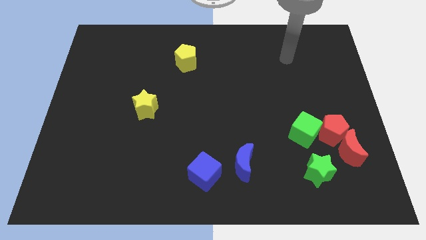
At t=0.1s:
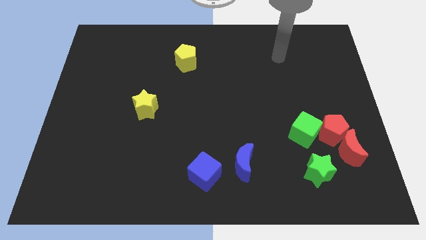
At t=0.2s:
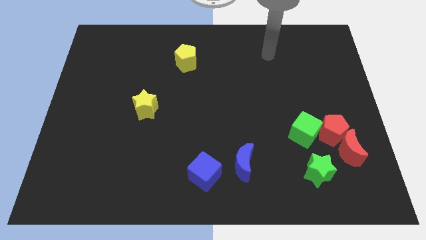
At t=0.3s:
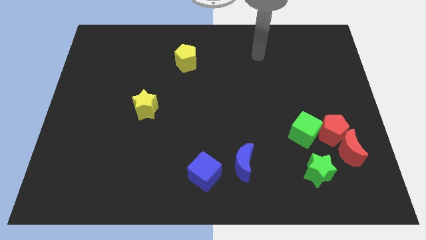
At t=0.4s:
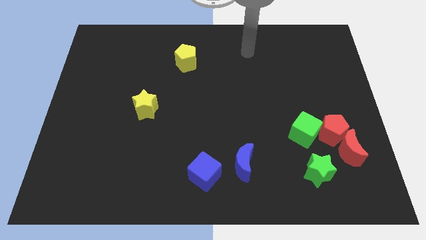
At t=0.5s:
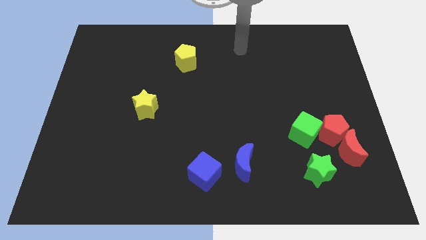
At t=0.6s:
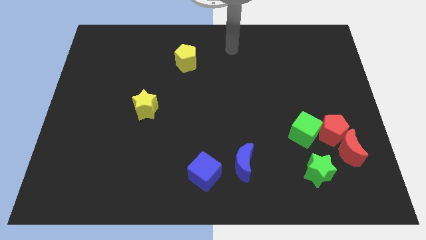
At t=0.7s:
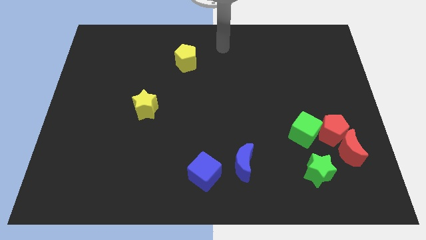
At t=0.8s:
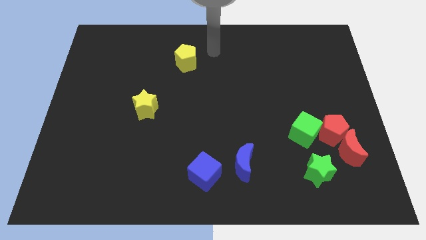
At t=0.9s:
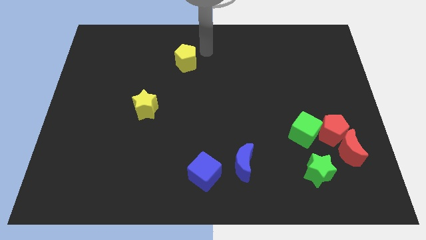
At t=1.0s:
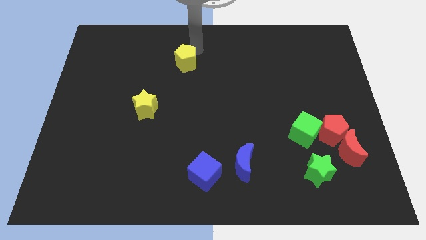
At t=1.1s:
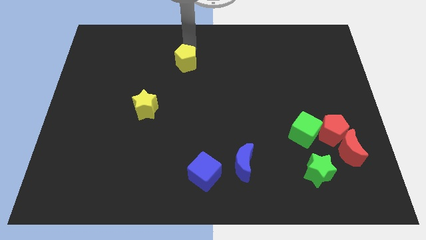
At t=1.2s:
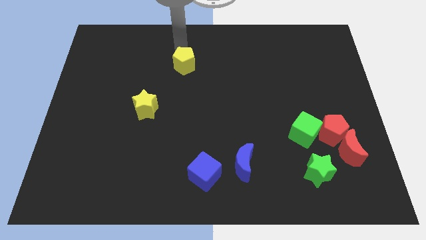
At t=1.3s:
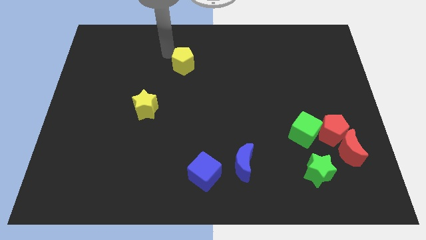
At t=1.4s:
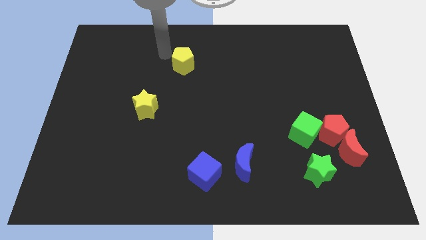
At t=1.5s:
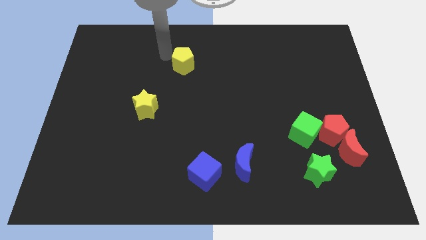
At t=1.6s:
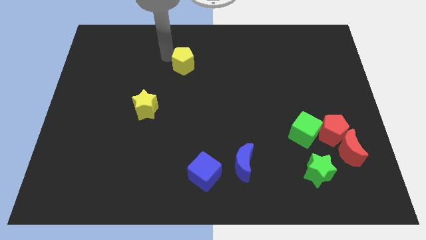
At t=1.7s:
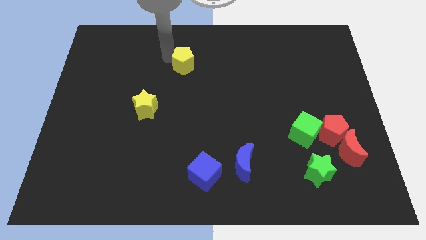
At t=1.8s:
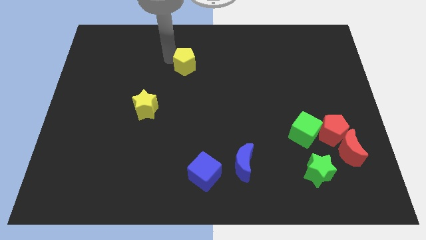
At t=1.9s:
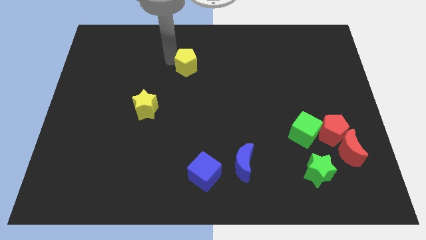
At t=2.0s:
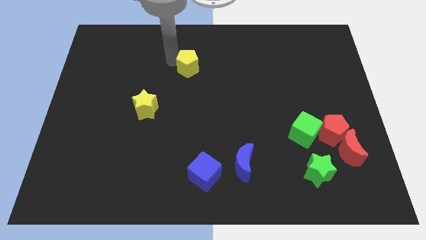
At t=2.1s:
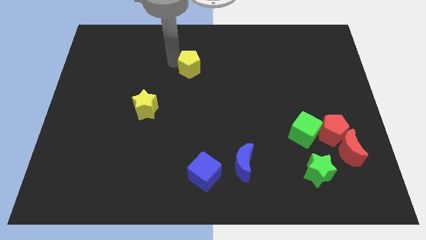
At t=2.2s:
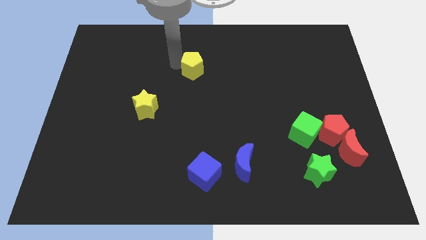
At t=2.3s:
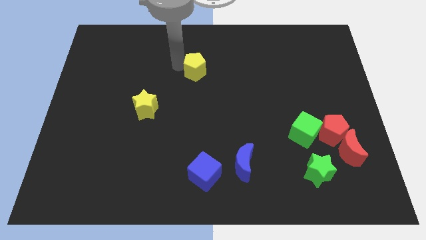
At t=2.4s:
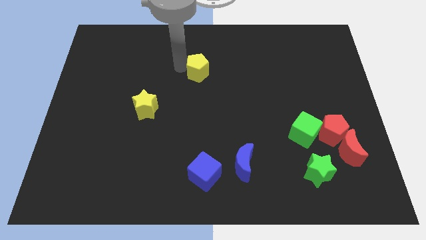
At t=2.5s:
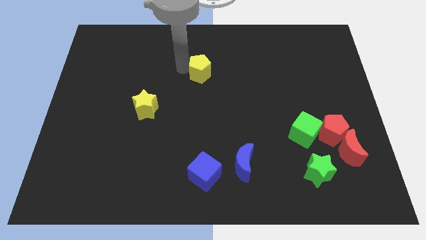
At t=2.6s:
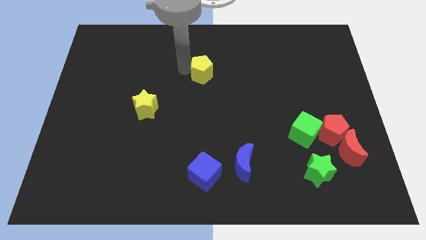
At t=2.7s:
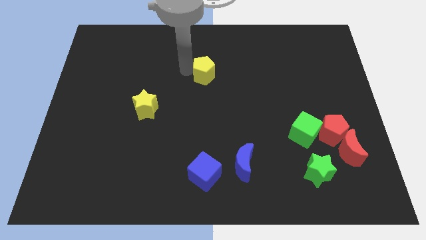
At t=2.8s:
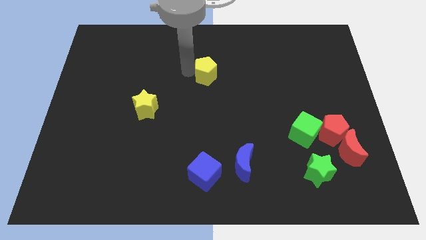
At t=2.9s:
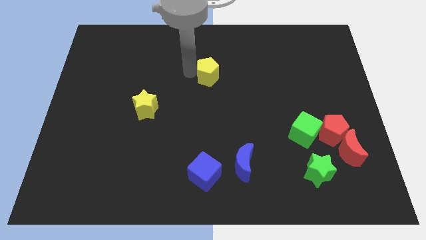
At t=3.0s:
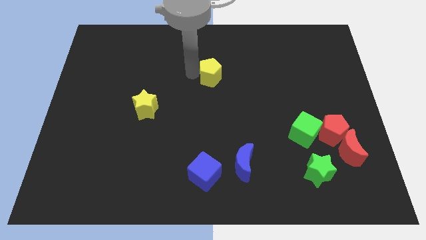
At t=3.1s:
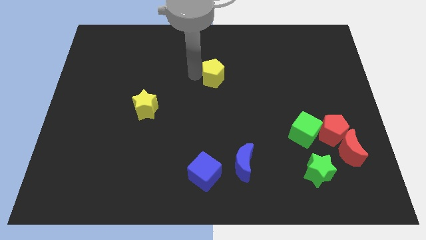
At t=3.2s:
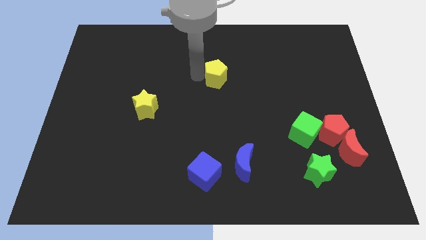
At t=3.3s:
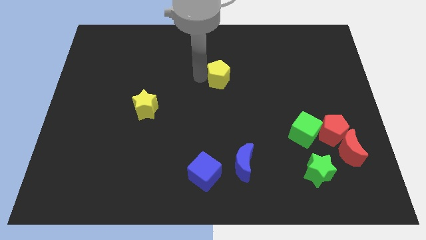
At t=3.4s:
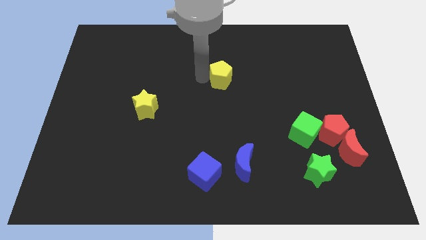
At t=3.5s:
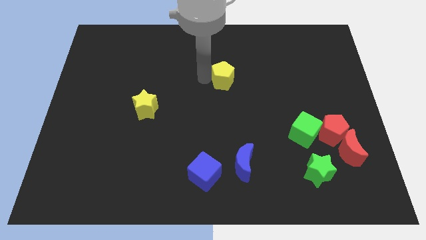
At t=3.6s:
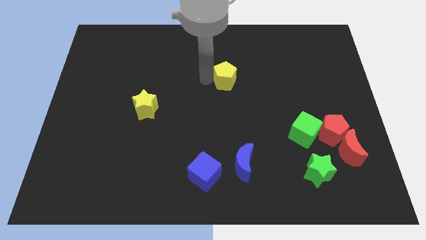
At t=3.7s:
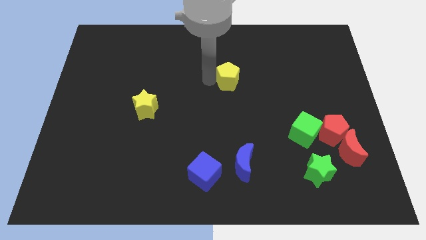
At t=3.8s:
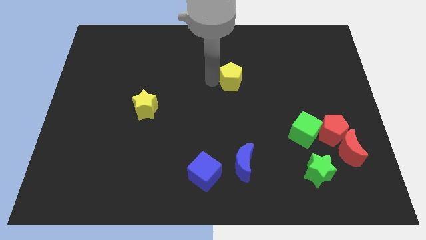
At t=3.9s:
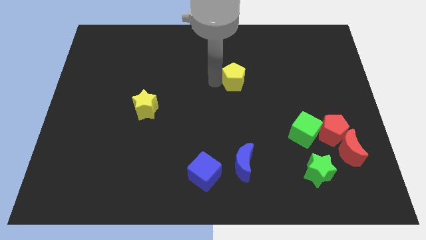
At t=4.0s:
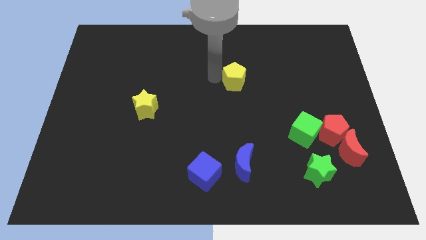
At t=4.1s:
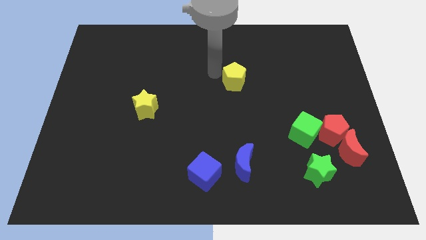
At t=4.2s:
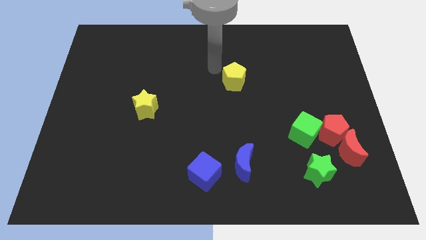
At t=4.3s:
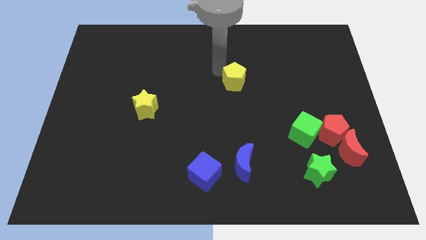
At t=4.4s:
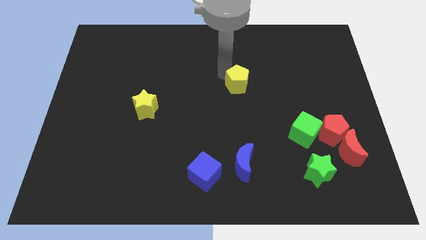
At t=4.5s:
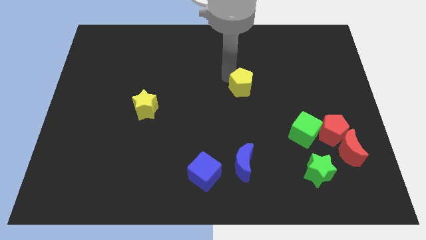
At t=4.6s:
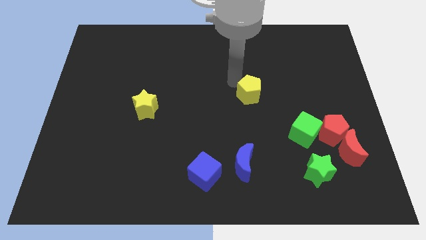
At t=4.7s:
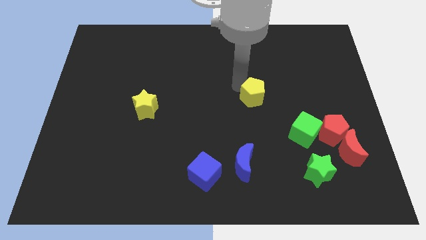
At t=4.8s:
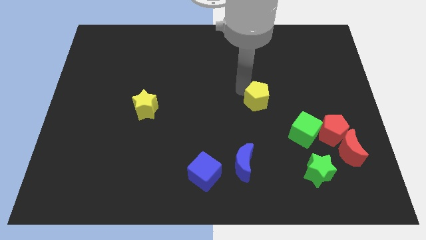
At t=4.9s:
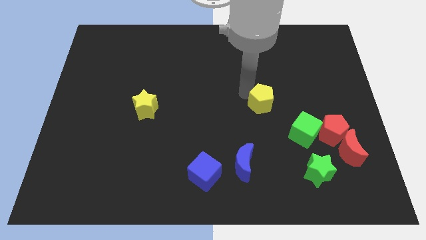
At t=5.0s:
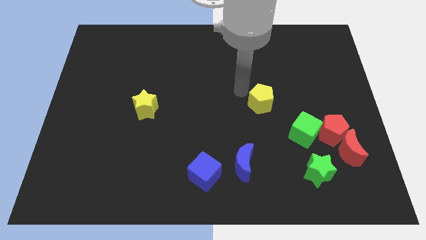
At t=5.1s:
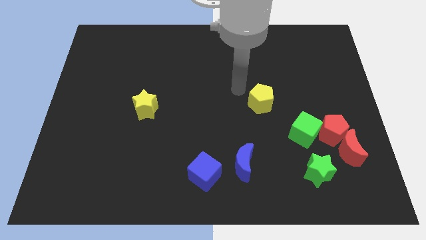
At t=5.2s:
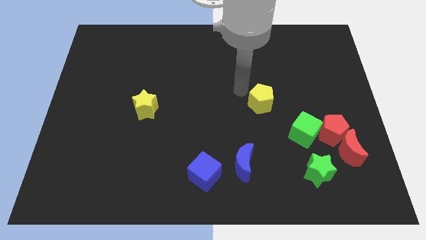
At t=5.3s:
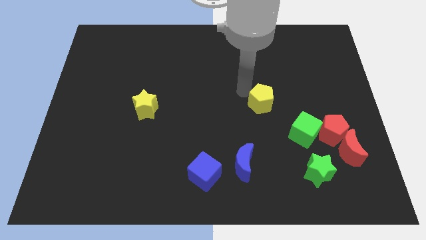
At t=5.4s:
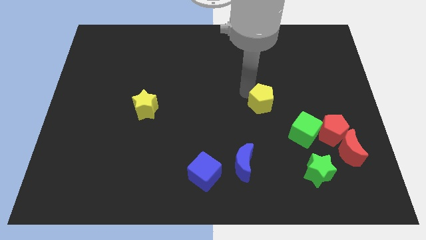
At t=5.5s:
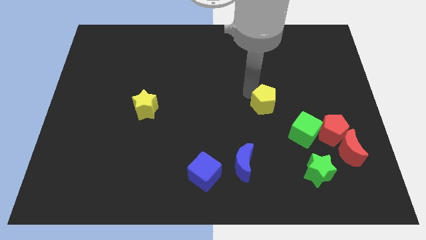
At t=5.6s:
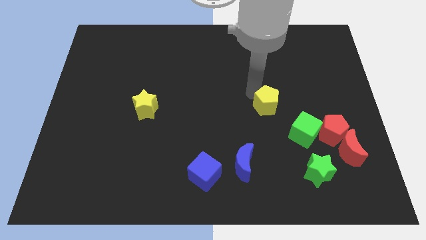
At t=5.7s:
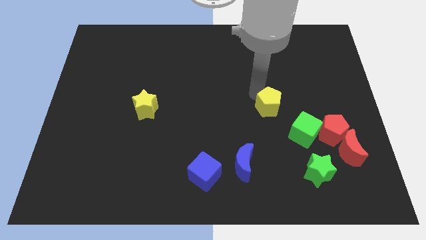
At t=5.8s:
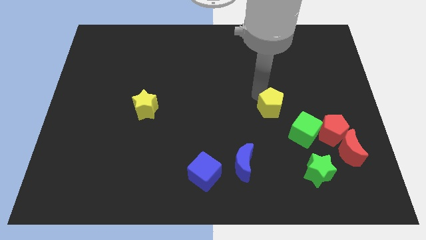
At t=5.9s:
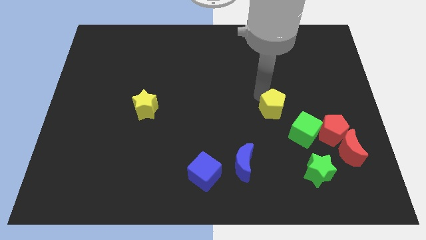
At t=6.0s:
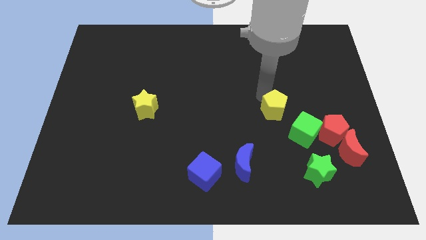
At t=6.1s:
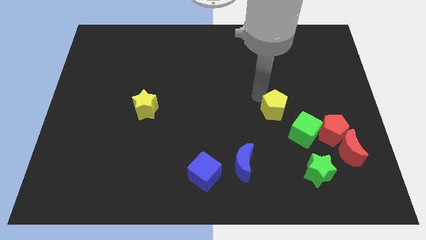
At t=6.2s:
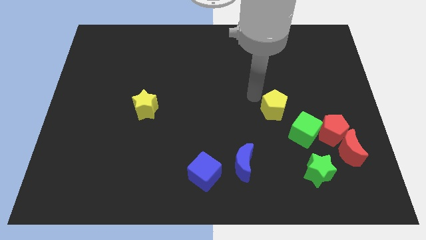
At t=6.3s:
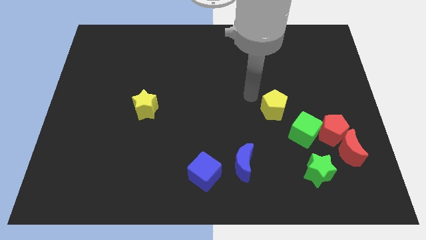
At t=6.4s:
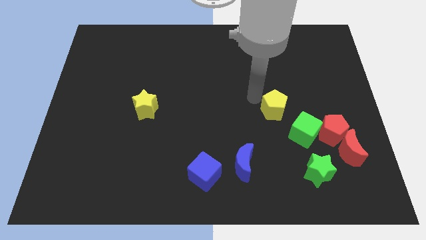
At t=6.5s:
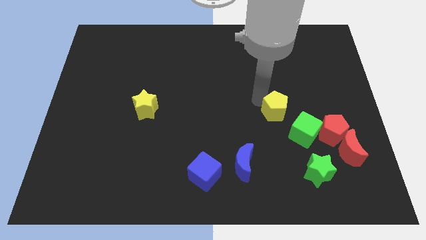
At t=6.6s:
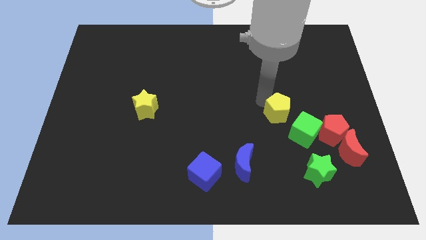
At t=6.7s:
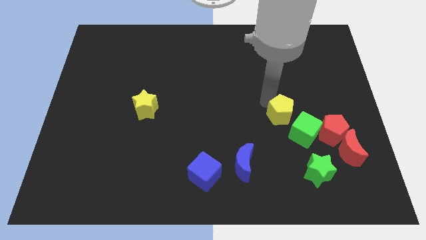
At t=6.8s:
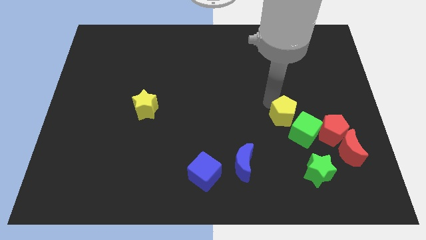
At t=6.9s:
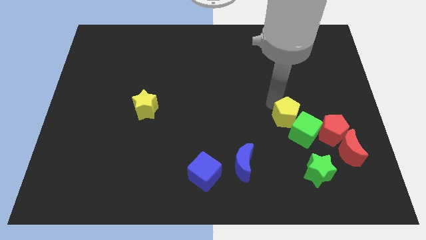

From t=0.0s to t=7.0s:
slide the yellow pentagon towards the green cube

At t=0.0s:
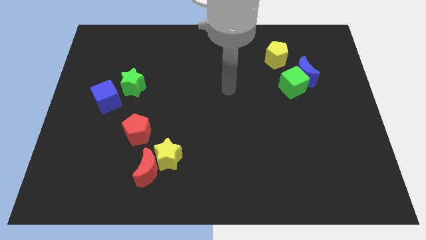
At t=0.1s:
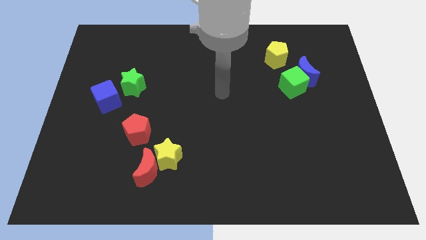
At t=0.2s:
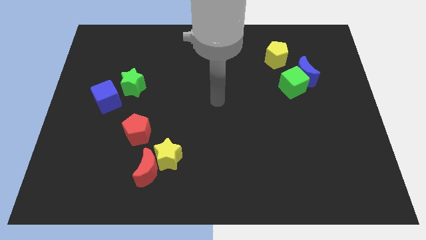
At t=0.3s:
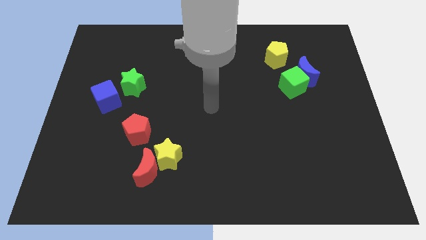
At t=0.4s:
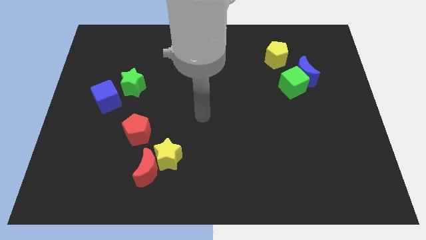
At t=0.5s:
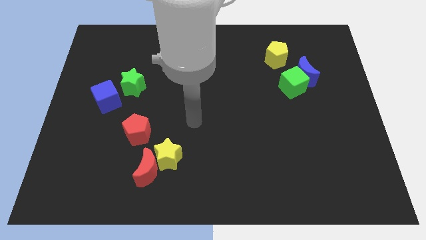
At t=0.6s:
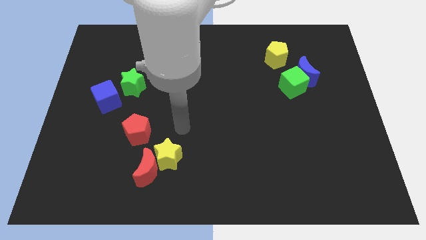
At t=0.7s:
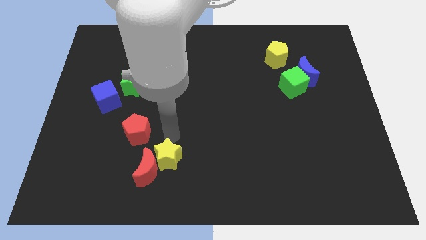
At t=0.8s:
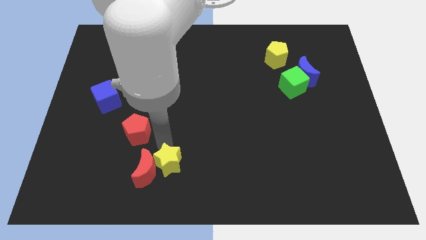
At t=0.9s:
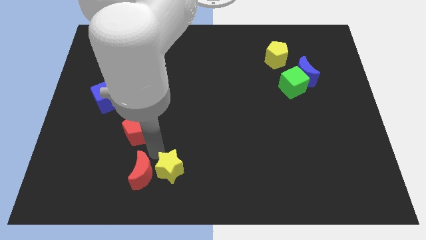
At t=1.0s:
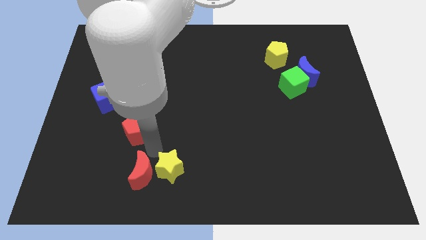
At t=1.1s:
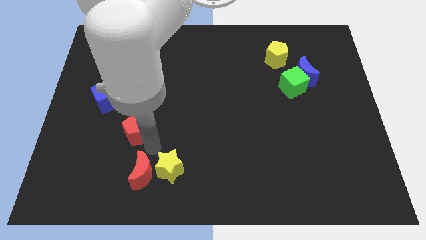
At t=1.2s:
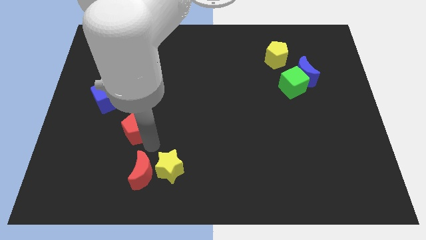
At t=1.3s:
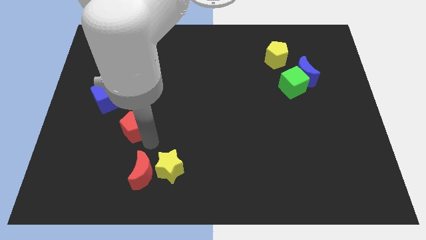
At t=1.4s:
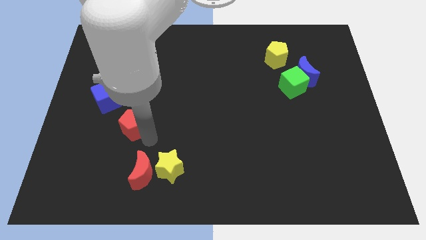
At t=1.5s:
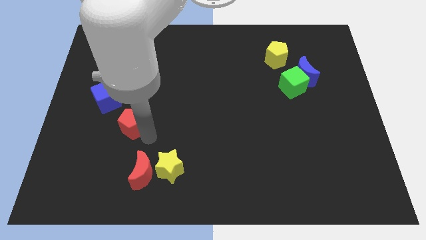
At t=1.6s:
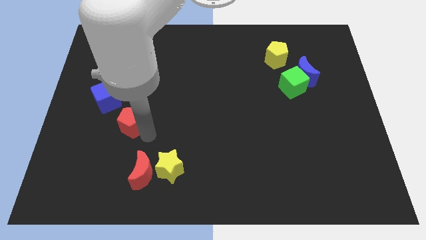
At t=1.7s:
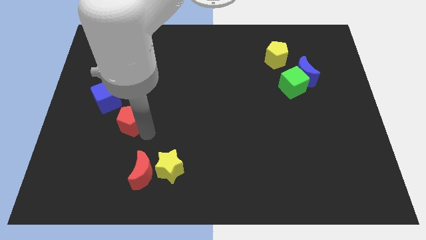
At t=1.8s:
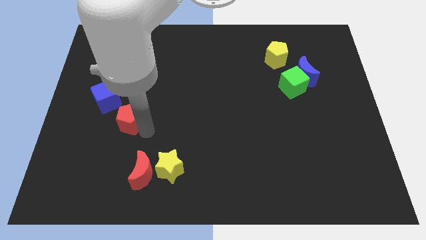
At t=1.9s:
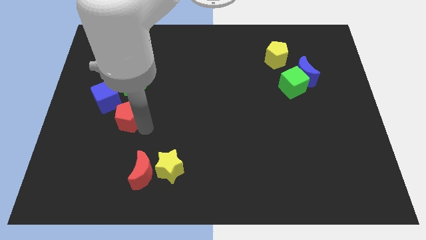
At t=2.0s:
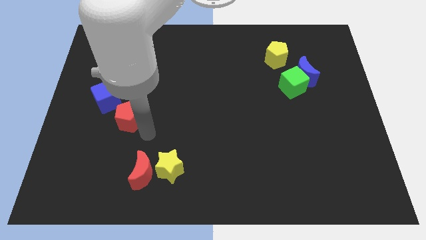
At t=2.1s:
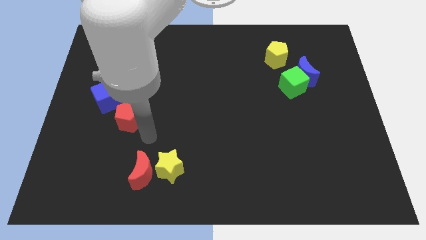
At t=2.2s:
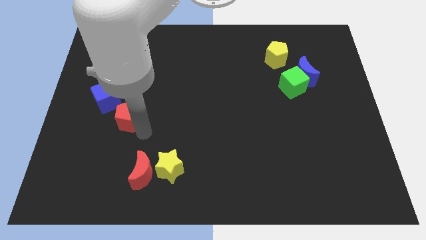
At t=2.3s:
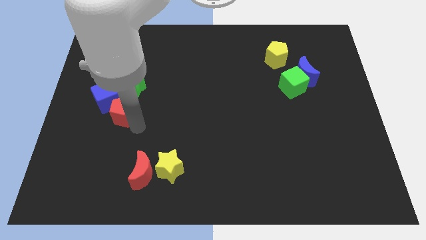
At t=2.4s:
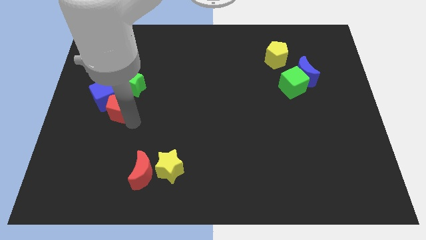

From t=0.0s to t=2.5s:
slide the red pentagon close to the blue cube
